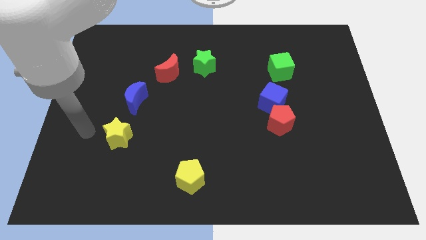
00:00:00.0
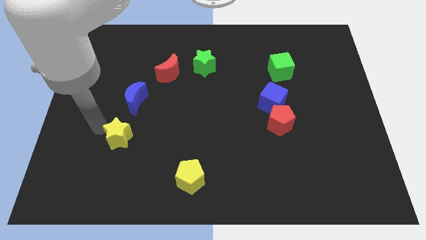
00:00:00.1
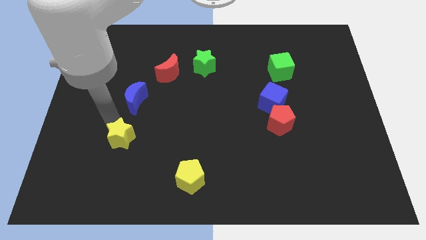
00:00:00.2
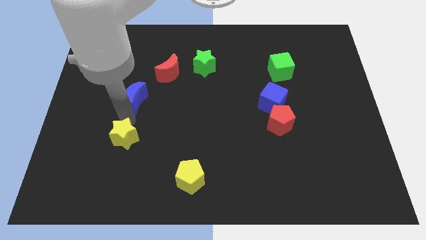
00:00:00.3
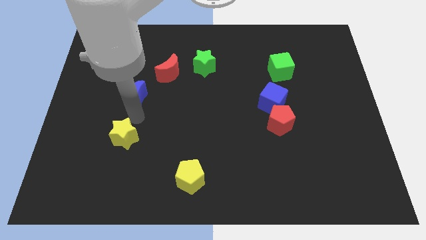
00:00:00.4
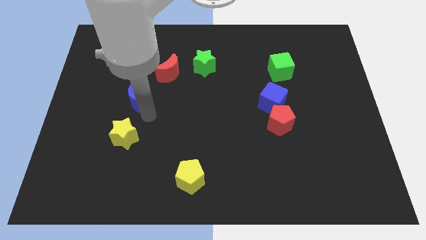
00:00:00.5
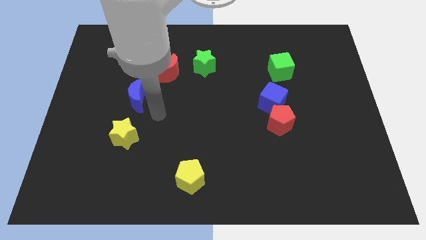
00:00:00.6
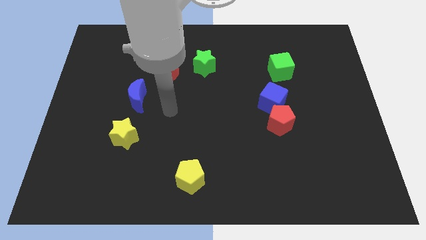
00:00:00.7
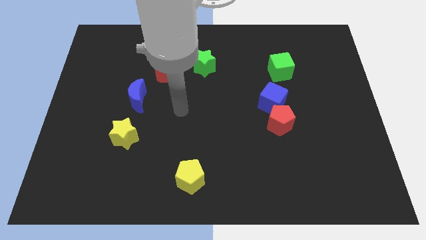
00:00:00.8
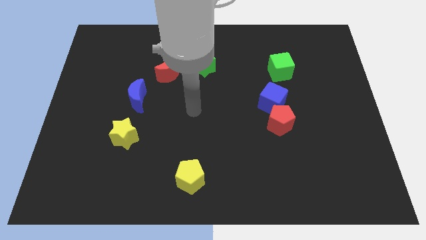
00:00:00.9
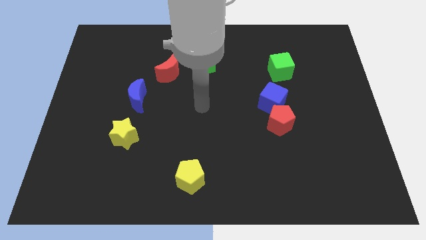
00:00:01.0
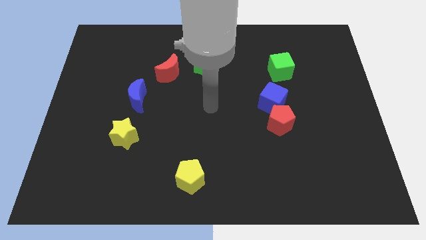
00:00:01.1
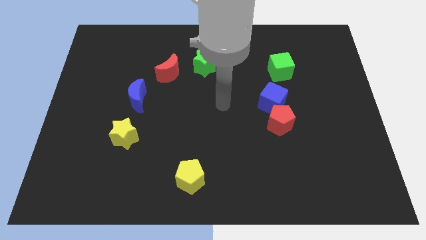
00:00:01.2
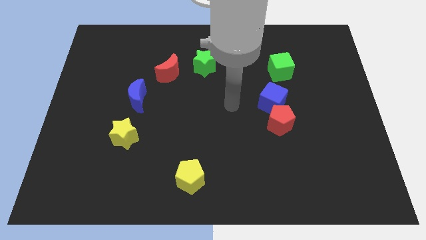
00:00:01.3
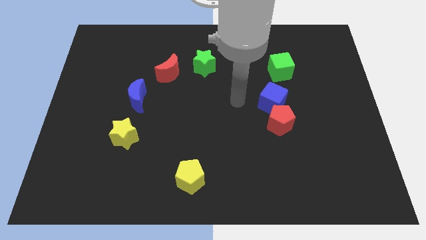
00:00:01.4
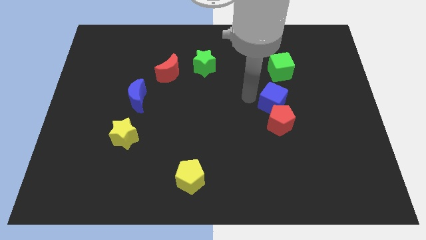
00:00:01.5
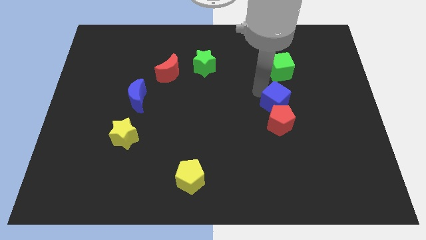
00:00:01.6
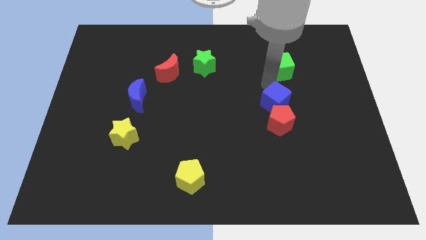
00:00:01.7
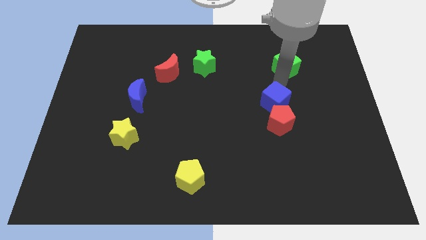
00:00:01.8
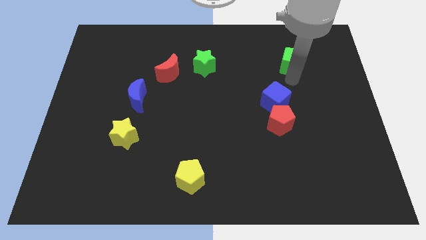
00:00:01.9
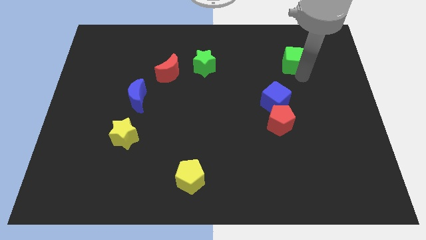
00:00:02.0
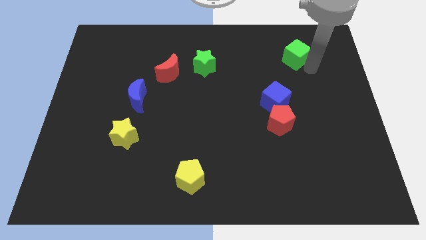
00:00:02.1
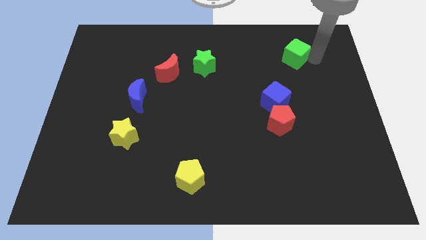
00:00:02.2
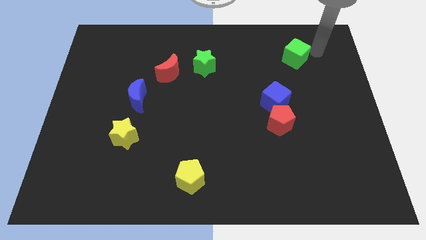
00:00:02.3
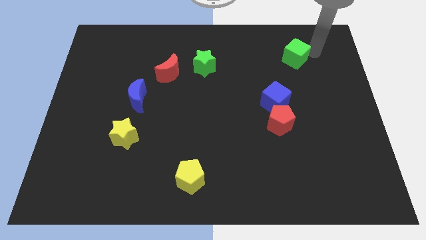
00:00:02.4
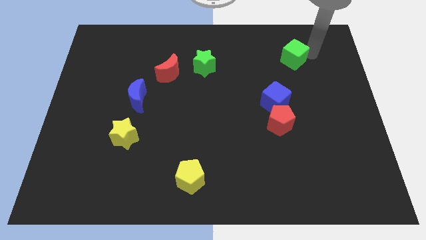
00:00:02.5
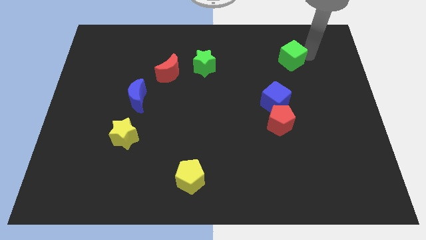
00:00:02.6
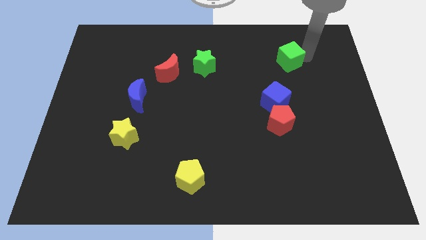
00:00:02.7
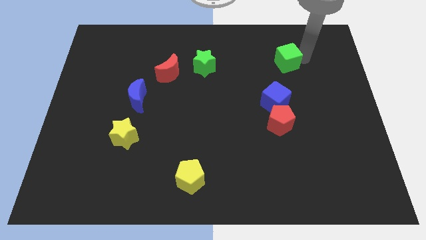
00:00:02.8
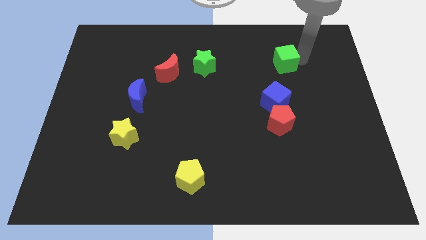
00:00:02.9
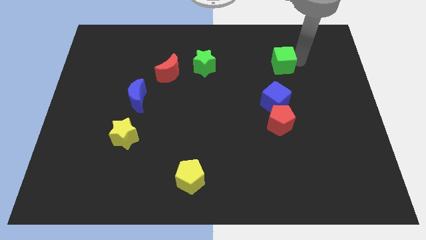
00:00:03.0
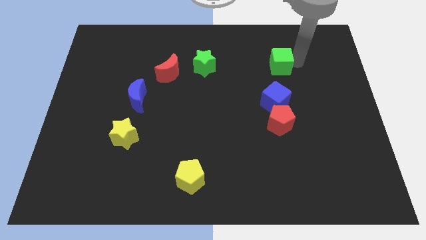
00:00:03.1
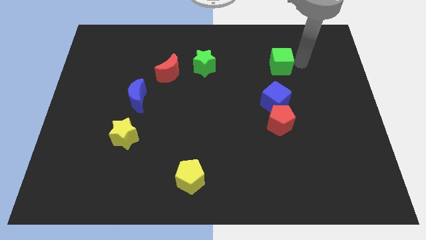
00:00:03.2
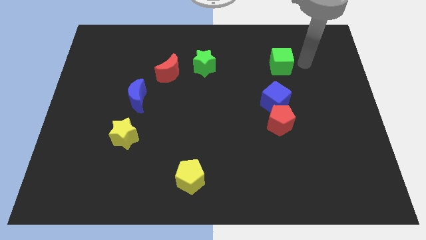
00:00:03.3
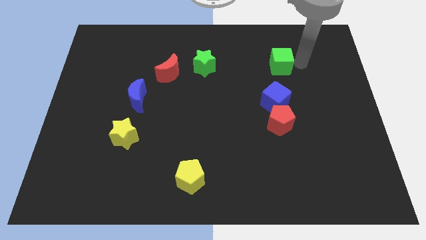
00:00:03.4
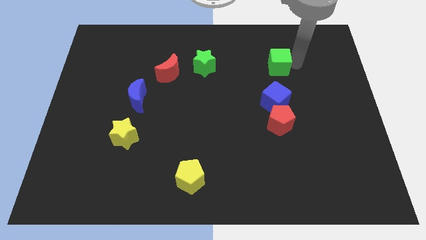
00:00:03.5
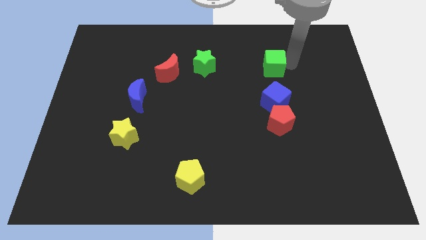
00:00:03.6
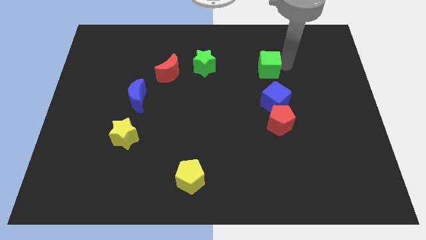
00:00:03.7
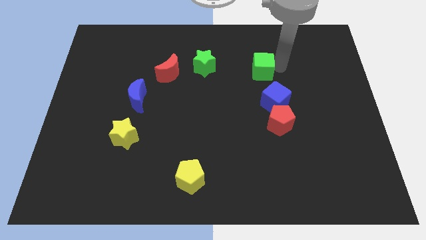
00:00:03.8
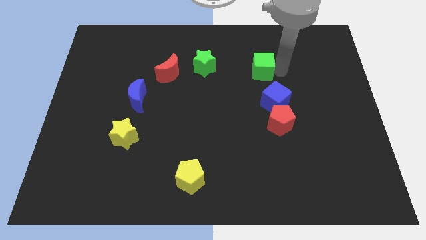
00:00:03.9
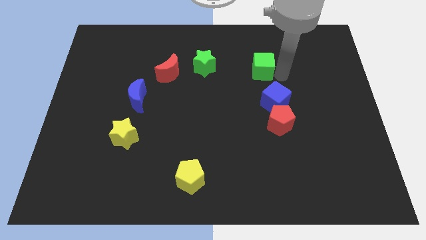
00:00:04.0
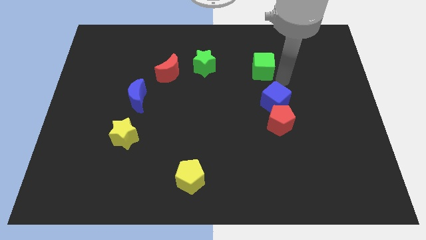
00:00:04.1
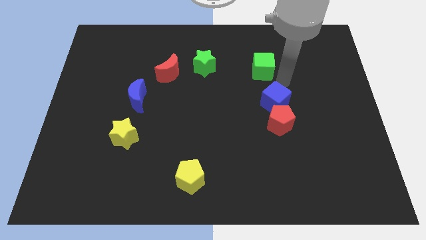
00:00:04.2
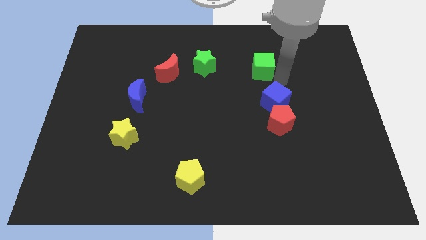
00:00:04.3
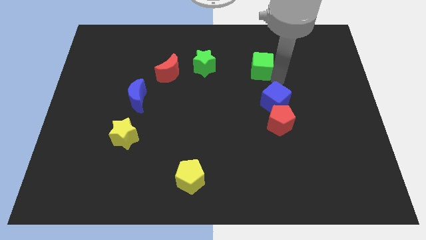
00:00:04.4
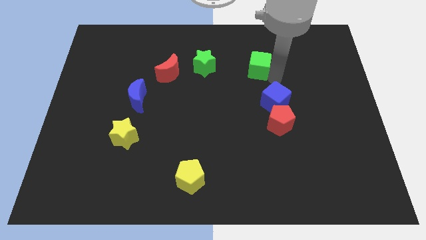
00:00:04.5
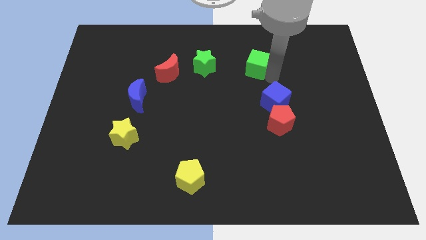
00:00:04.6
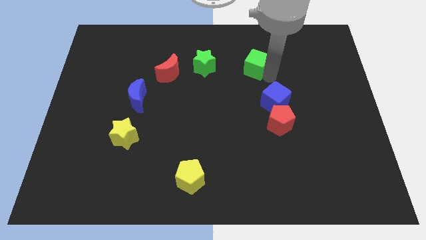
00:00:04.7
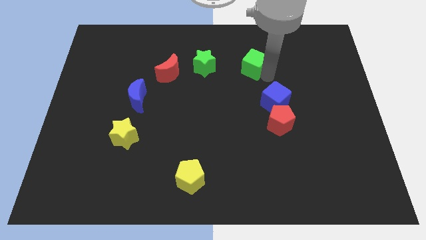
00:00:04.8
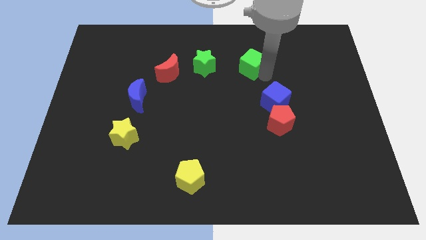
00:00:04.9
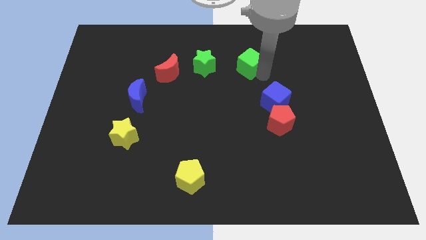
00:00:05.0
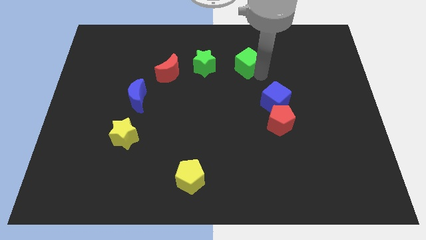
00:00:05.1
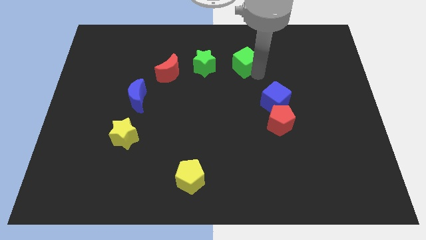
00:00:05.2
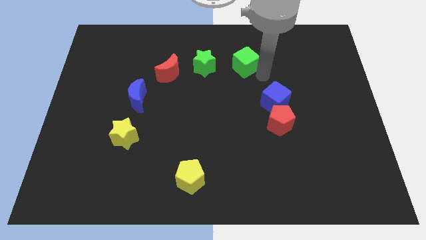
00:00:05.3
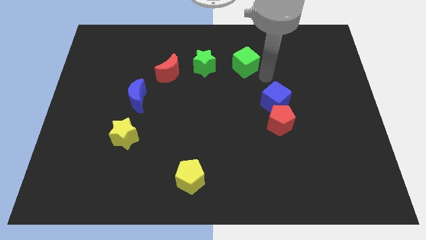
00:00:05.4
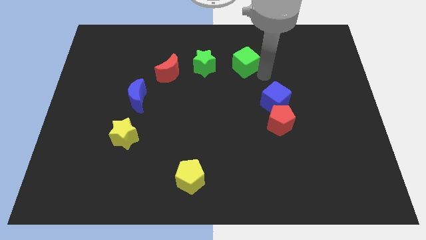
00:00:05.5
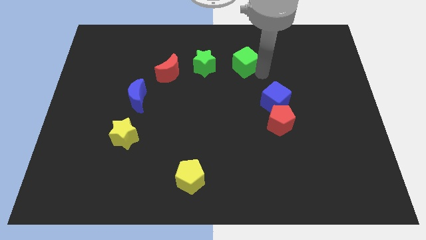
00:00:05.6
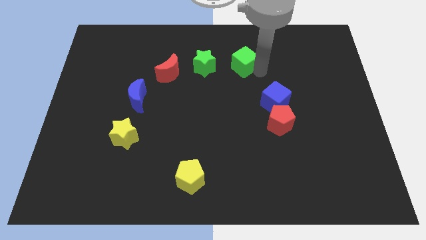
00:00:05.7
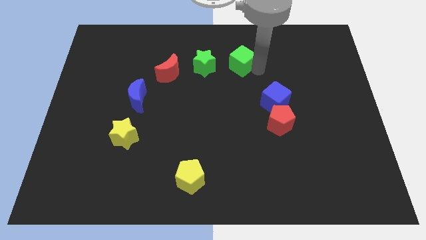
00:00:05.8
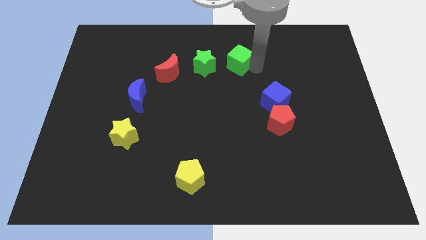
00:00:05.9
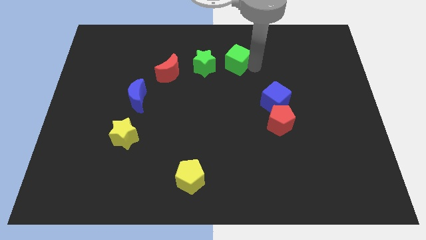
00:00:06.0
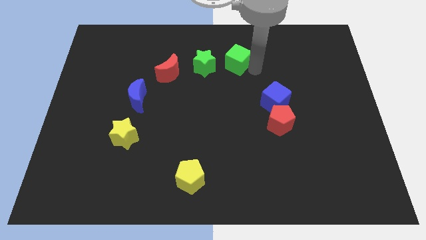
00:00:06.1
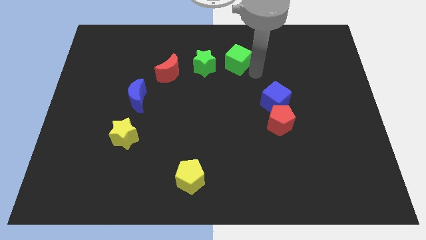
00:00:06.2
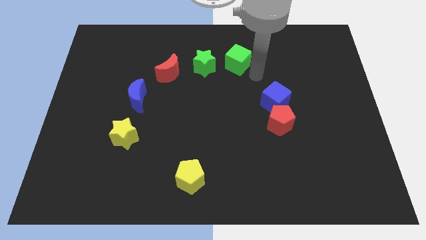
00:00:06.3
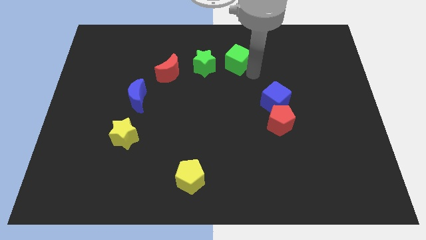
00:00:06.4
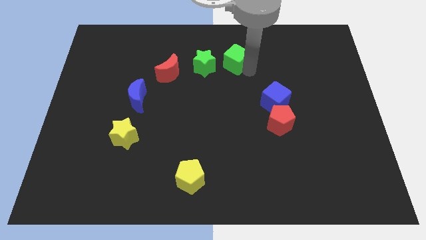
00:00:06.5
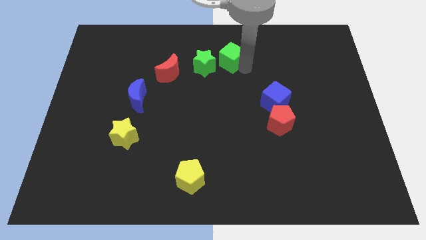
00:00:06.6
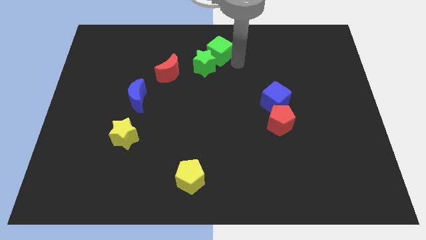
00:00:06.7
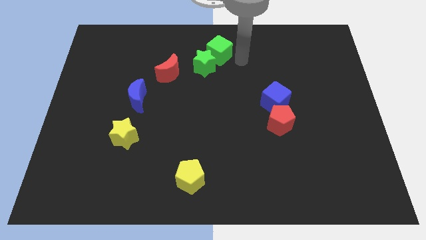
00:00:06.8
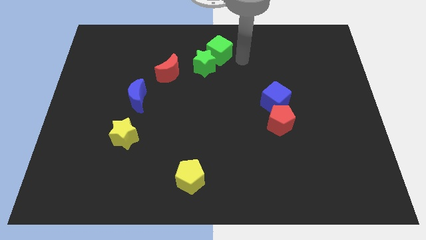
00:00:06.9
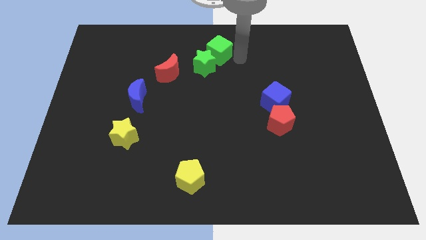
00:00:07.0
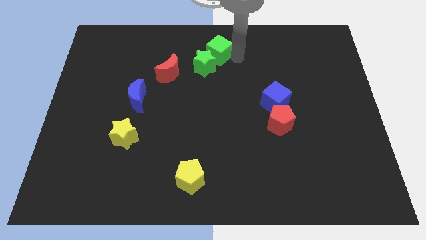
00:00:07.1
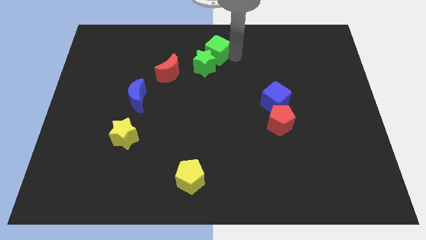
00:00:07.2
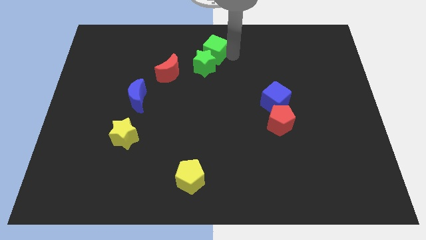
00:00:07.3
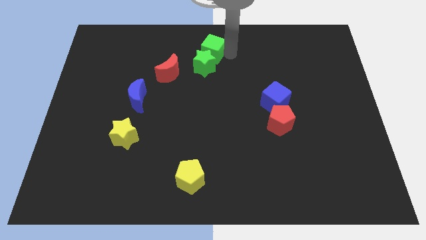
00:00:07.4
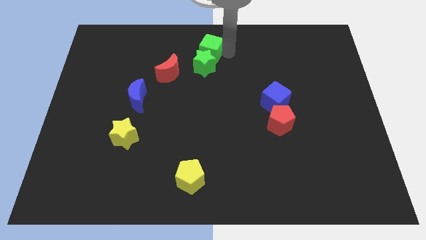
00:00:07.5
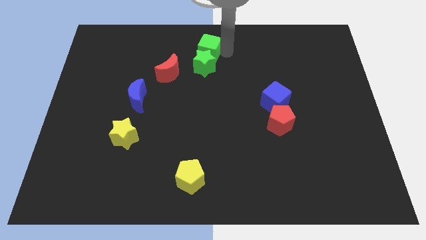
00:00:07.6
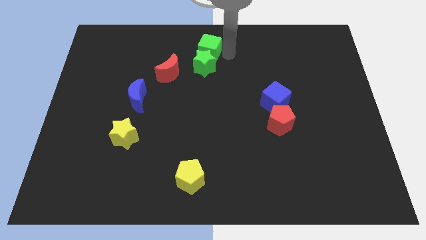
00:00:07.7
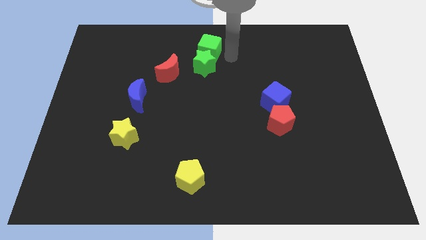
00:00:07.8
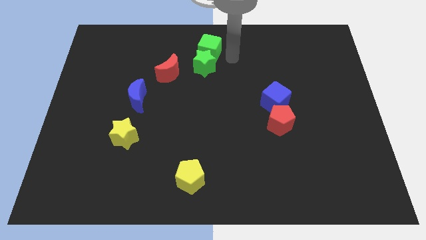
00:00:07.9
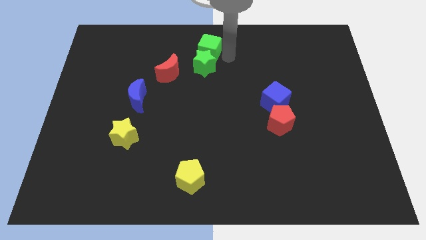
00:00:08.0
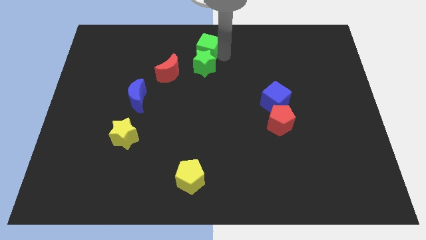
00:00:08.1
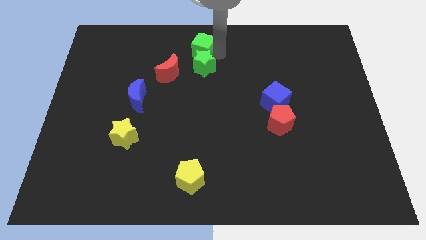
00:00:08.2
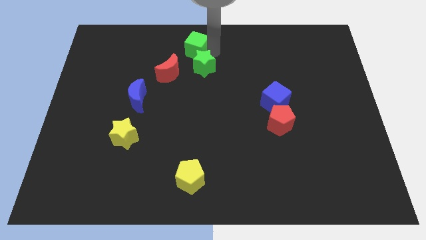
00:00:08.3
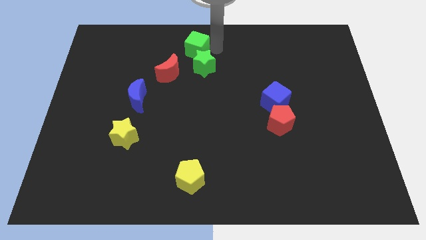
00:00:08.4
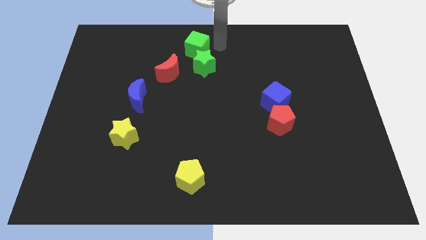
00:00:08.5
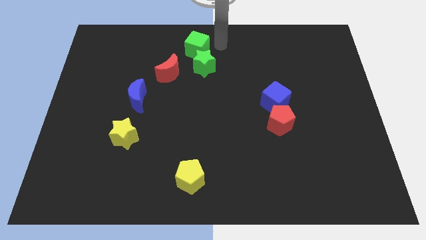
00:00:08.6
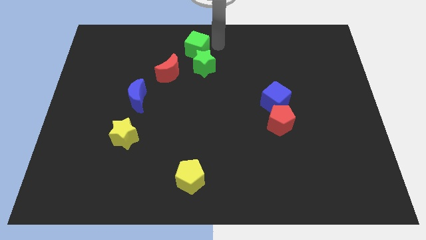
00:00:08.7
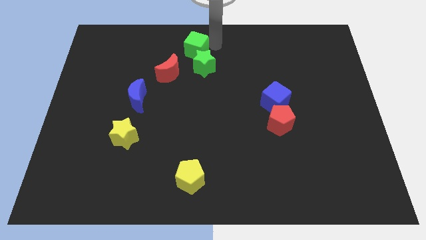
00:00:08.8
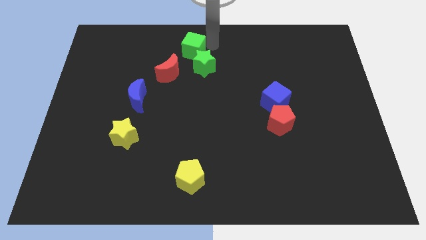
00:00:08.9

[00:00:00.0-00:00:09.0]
move the green cube to the left
